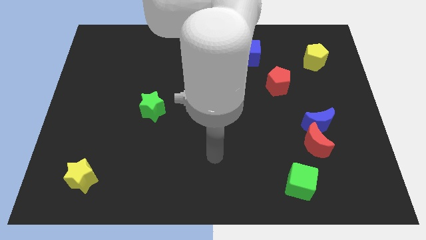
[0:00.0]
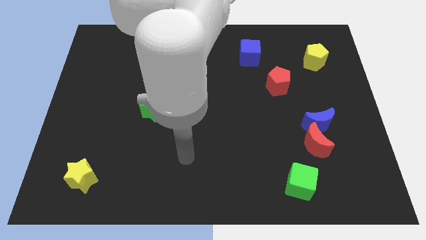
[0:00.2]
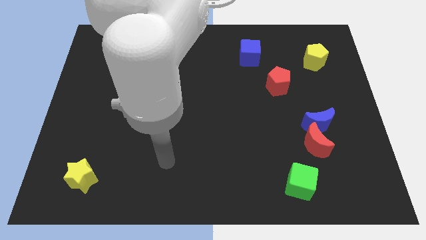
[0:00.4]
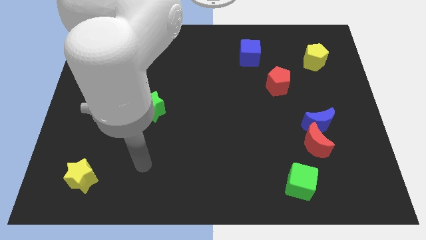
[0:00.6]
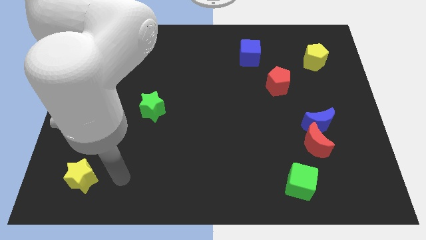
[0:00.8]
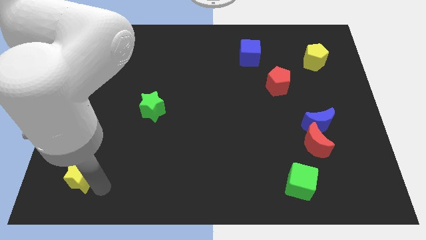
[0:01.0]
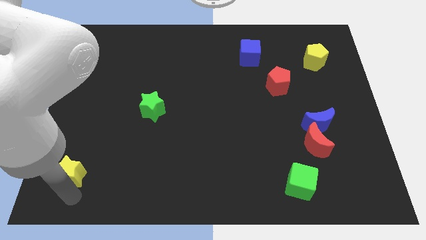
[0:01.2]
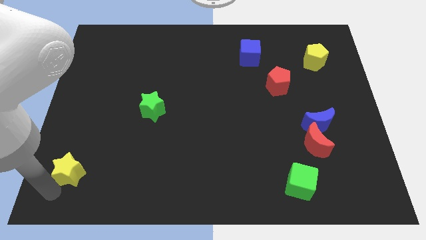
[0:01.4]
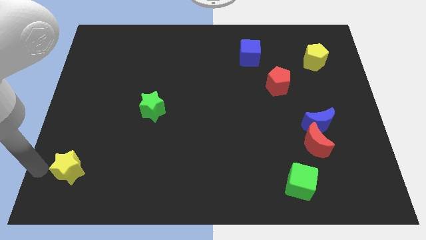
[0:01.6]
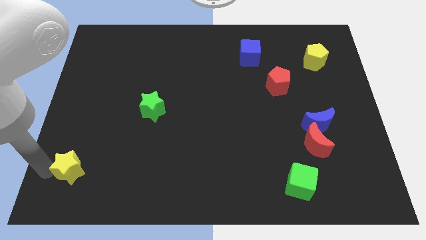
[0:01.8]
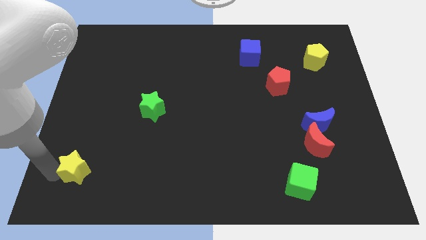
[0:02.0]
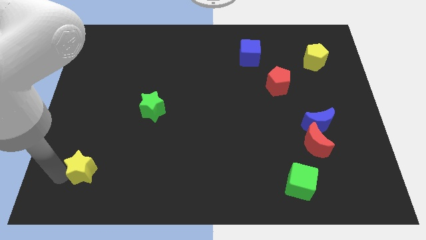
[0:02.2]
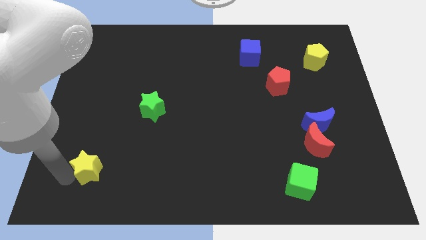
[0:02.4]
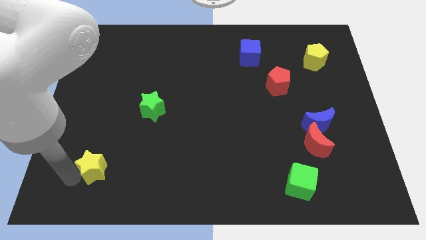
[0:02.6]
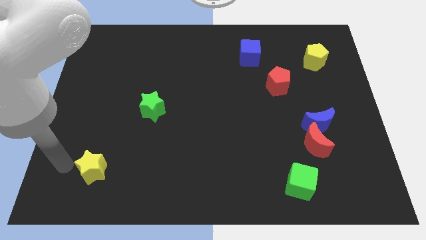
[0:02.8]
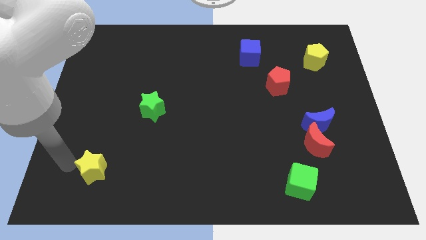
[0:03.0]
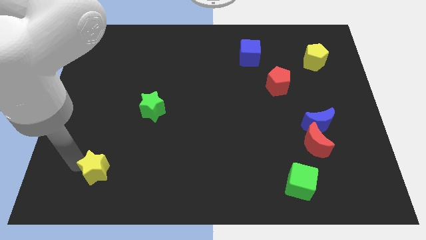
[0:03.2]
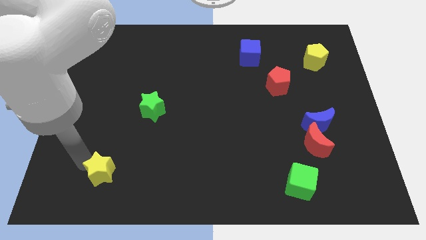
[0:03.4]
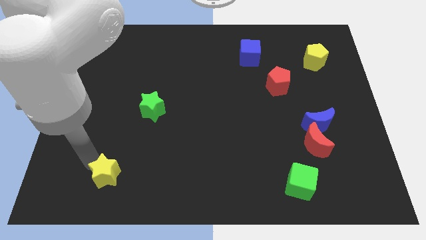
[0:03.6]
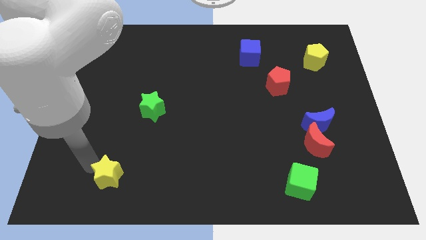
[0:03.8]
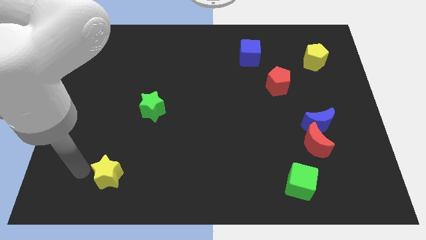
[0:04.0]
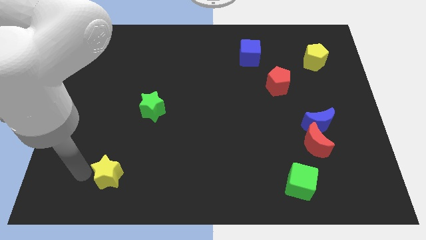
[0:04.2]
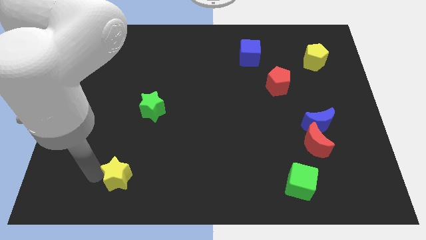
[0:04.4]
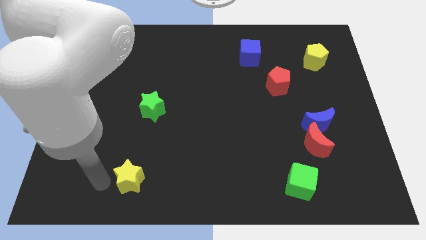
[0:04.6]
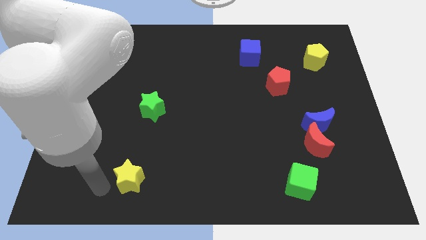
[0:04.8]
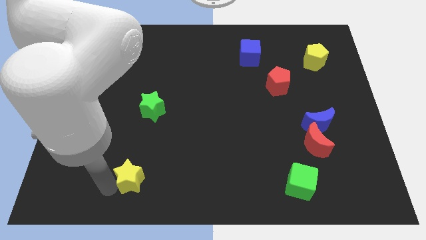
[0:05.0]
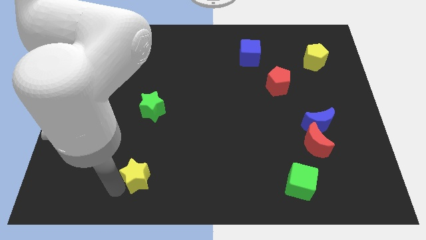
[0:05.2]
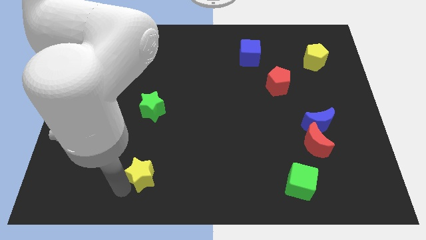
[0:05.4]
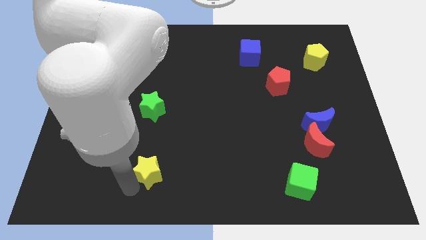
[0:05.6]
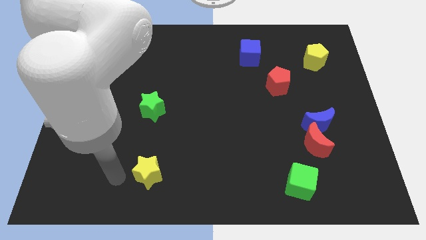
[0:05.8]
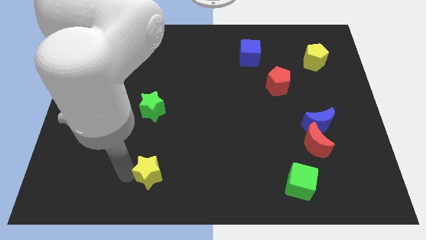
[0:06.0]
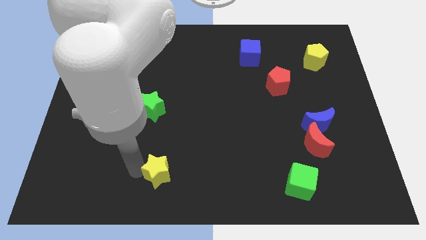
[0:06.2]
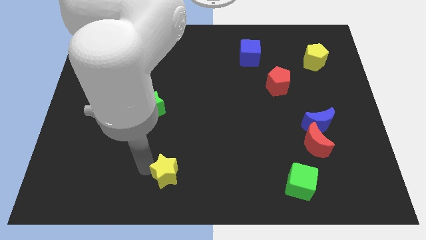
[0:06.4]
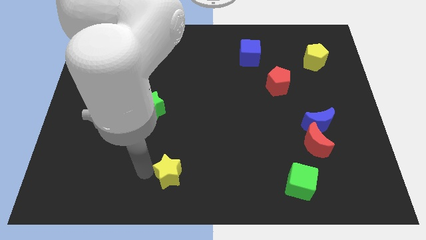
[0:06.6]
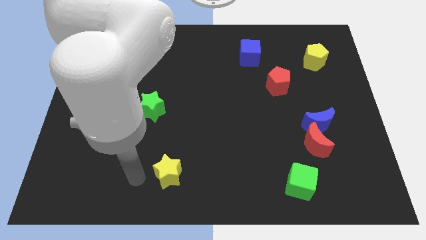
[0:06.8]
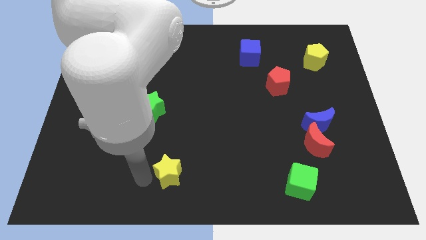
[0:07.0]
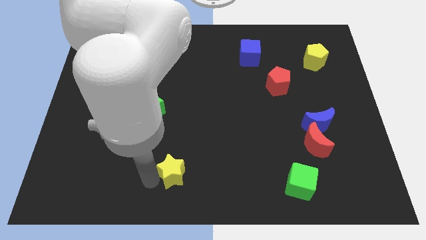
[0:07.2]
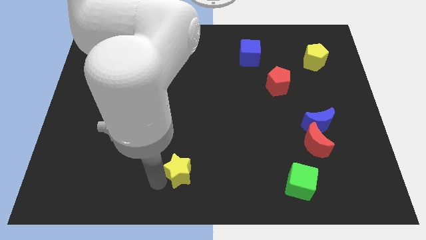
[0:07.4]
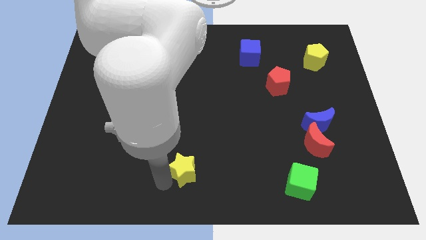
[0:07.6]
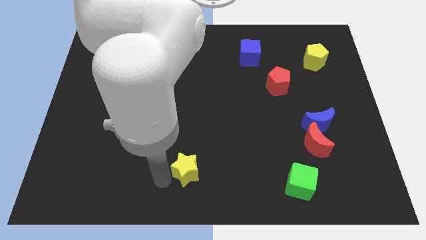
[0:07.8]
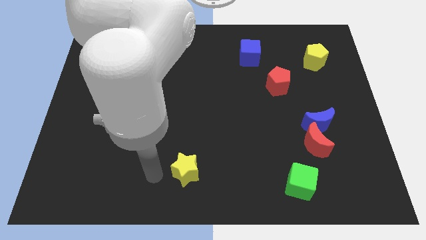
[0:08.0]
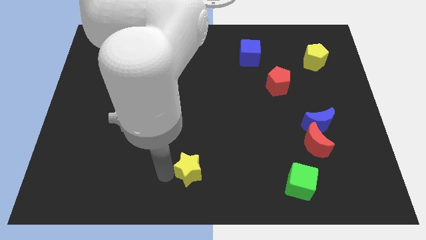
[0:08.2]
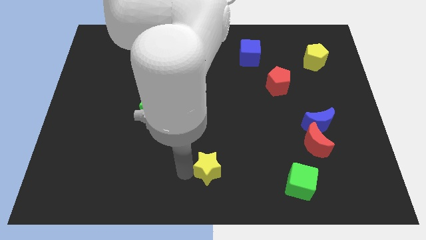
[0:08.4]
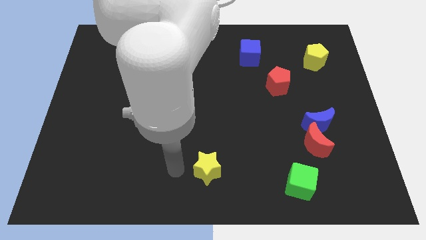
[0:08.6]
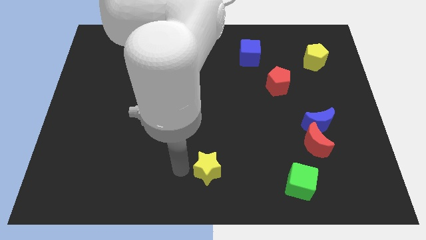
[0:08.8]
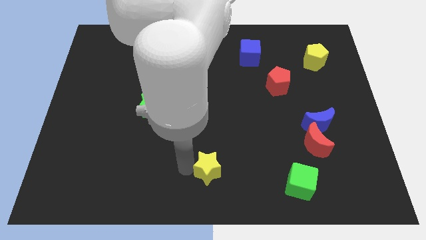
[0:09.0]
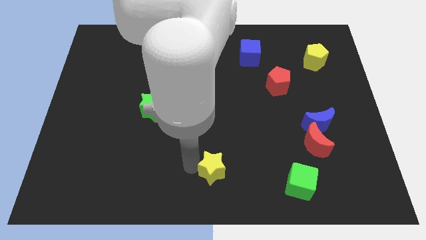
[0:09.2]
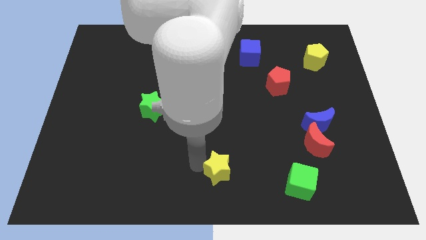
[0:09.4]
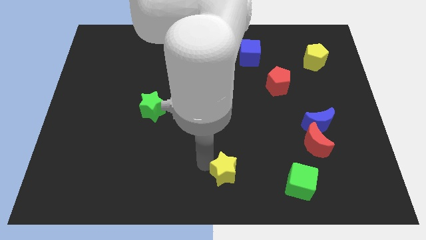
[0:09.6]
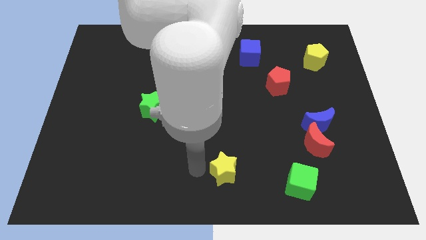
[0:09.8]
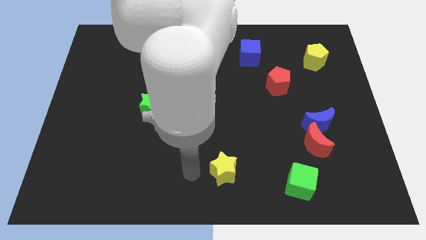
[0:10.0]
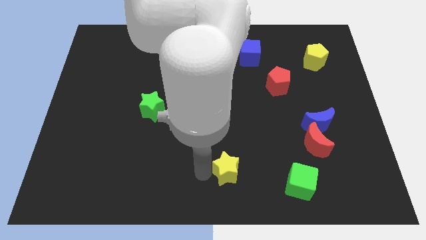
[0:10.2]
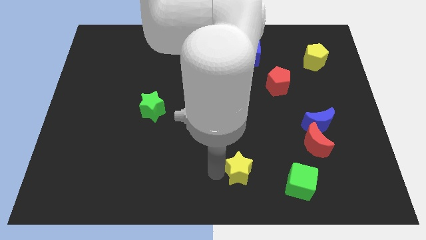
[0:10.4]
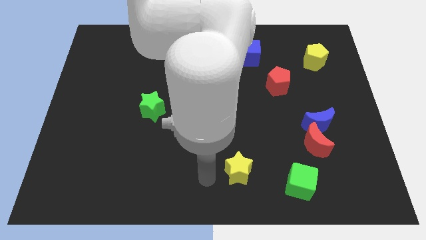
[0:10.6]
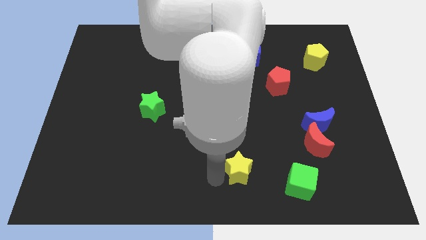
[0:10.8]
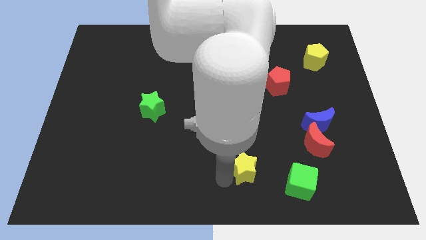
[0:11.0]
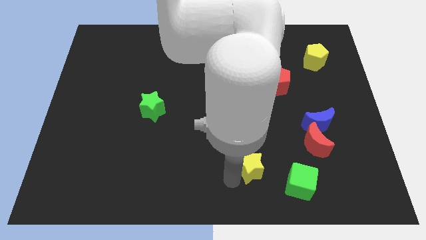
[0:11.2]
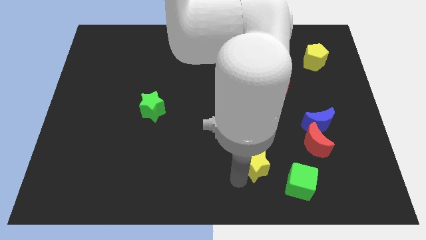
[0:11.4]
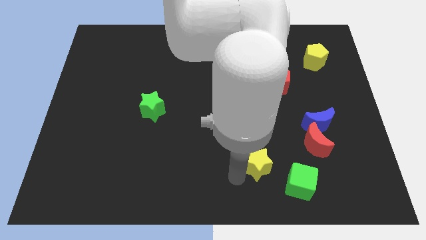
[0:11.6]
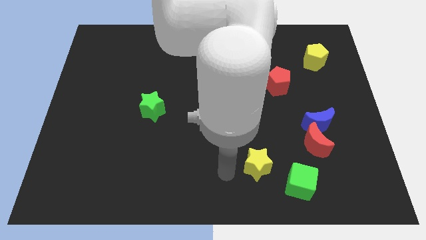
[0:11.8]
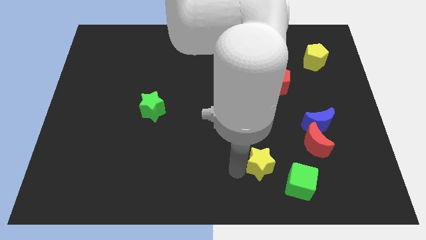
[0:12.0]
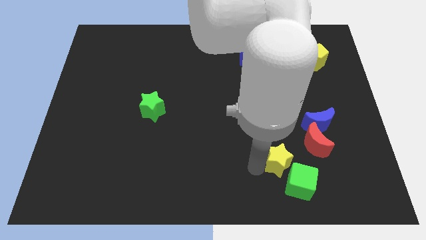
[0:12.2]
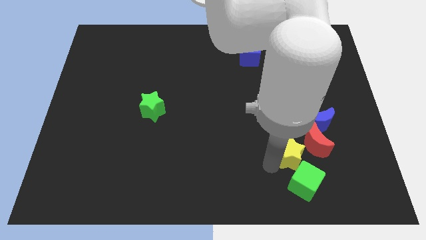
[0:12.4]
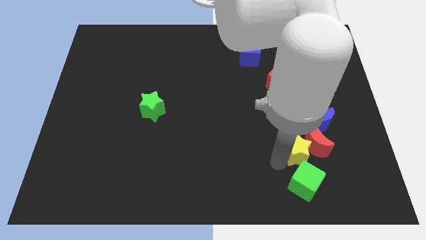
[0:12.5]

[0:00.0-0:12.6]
slide the yellow star close to the red moon
